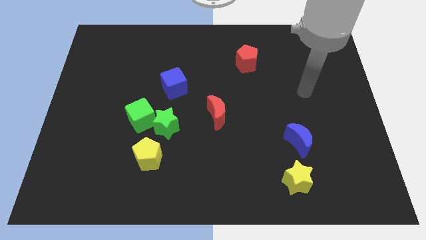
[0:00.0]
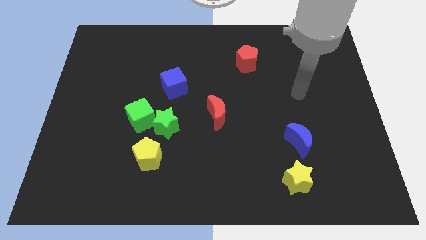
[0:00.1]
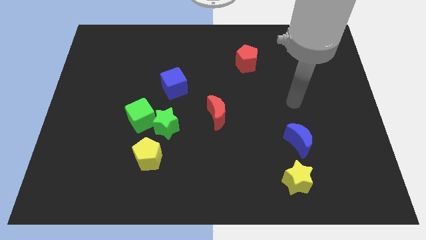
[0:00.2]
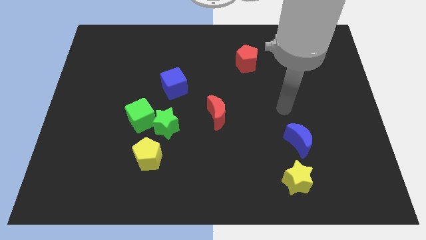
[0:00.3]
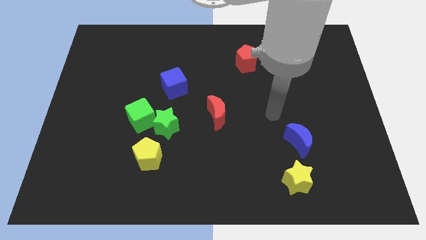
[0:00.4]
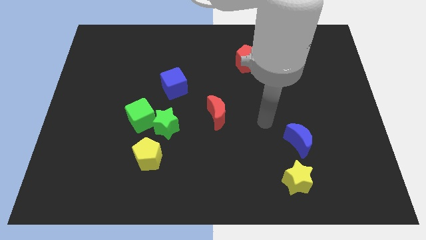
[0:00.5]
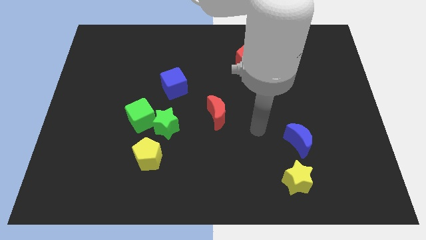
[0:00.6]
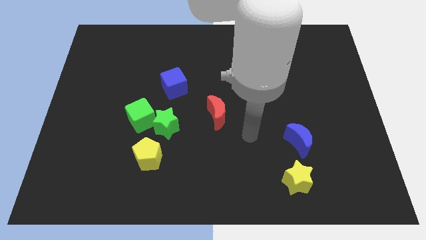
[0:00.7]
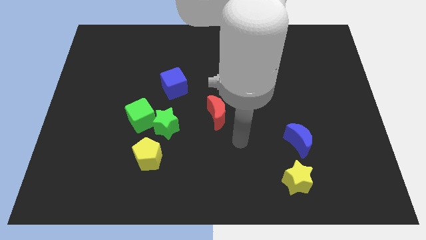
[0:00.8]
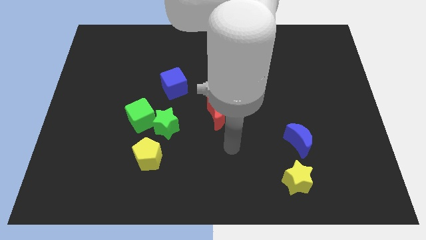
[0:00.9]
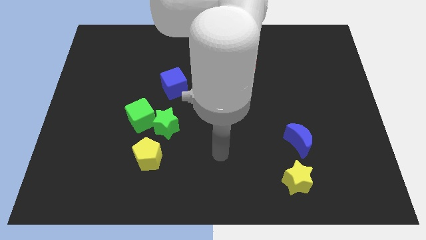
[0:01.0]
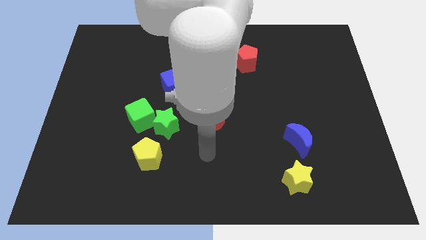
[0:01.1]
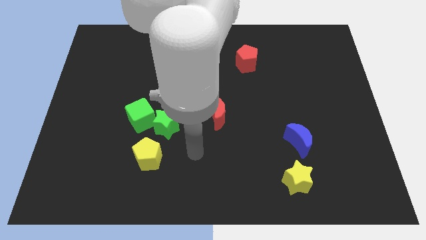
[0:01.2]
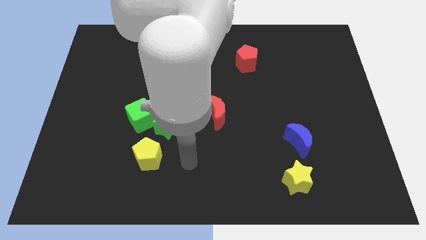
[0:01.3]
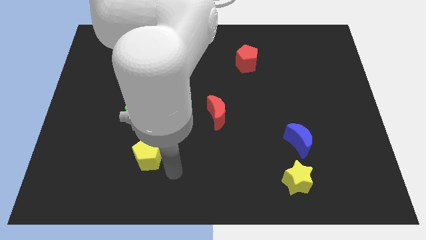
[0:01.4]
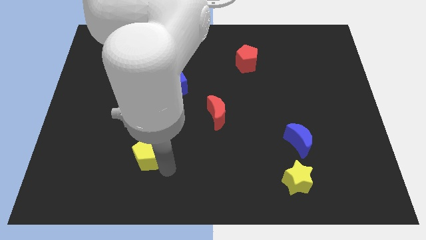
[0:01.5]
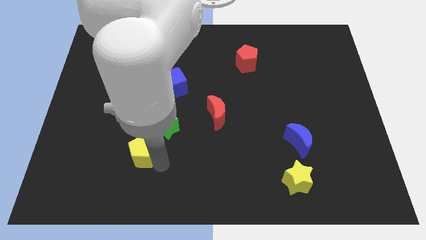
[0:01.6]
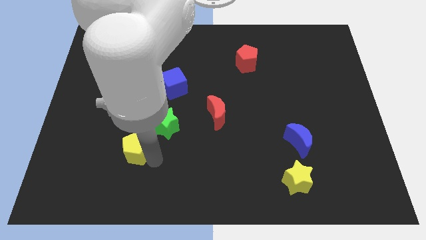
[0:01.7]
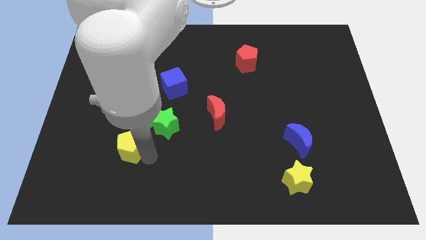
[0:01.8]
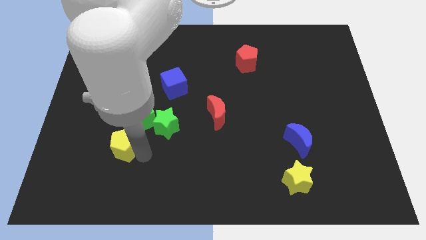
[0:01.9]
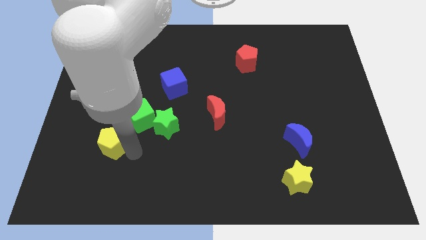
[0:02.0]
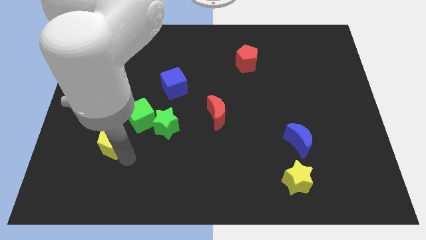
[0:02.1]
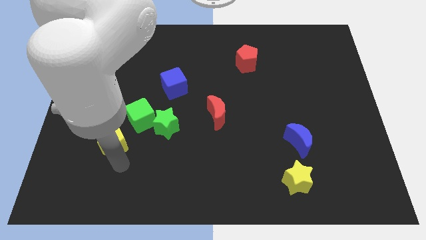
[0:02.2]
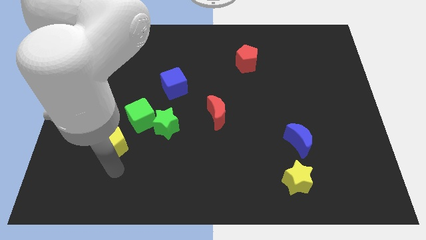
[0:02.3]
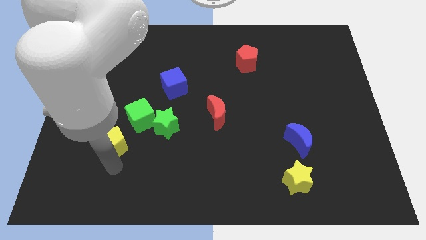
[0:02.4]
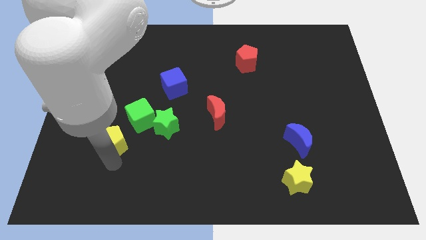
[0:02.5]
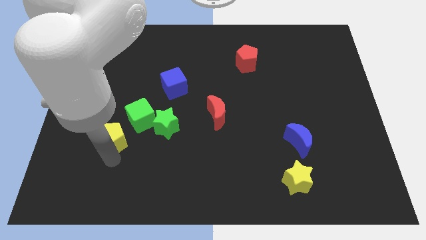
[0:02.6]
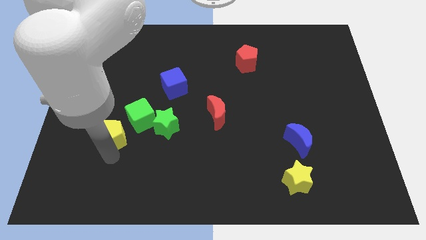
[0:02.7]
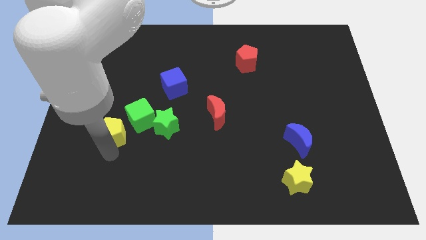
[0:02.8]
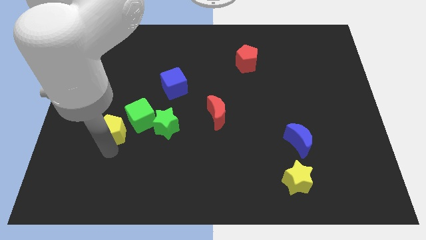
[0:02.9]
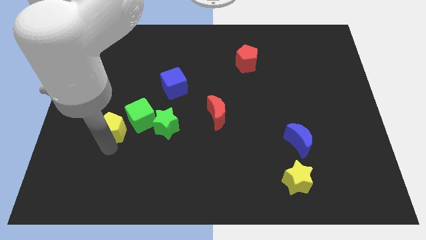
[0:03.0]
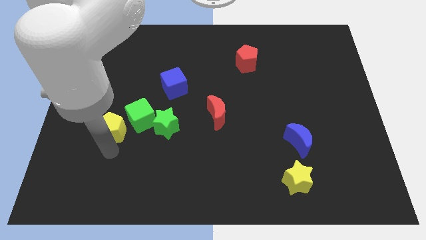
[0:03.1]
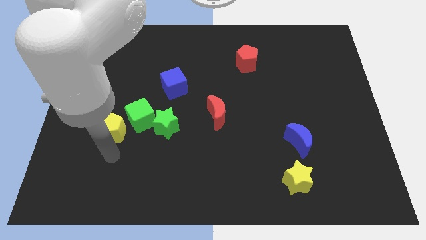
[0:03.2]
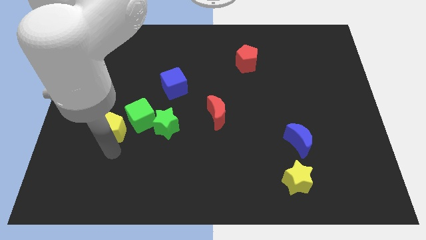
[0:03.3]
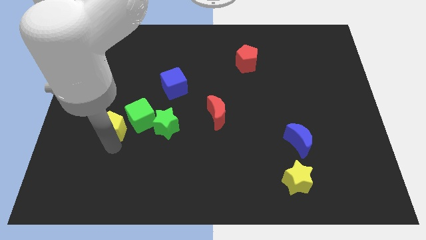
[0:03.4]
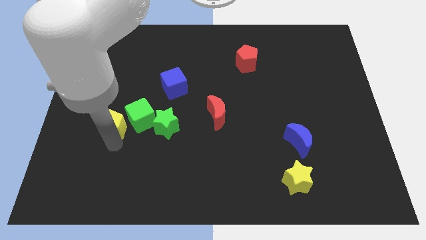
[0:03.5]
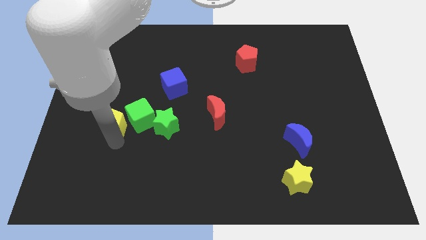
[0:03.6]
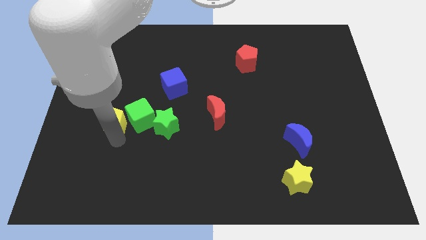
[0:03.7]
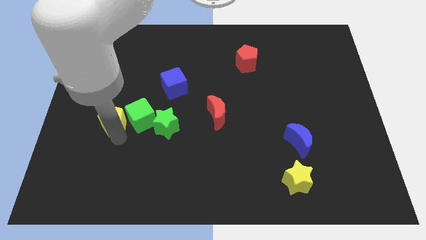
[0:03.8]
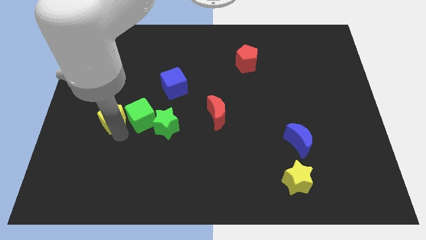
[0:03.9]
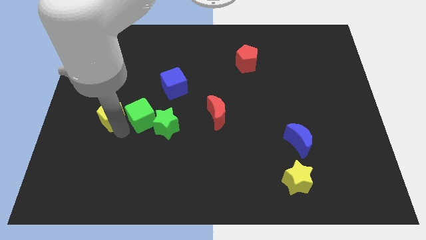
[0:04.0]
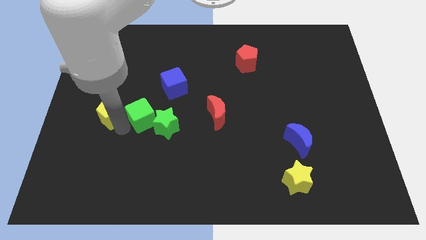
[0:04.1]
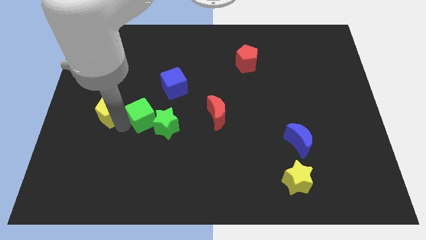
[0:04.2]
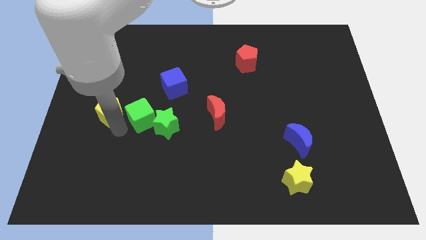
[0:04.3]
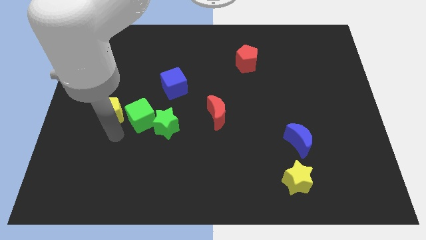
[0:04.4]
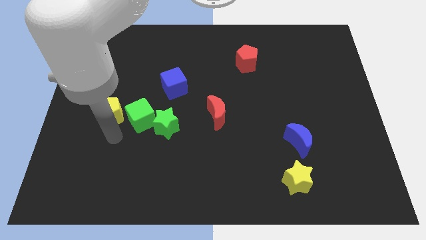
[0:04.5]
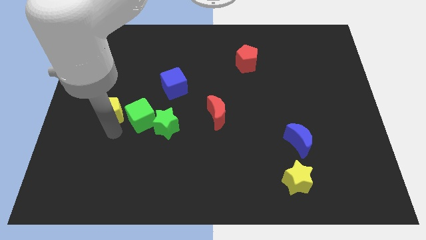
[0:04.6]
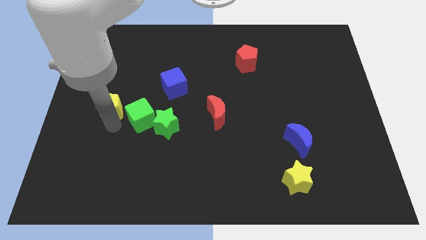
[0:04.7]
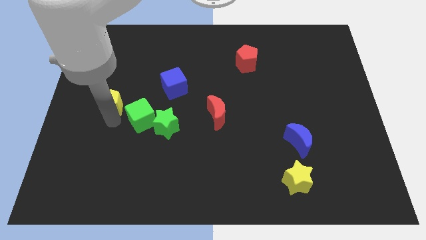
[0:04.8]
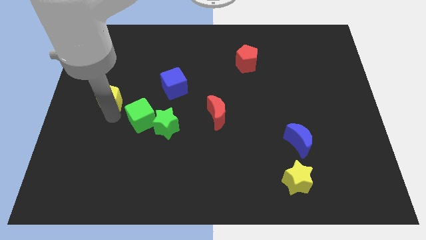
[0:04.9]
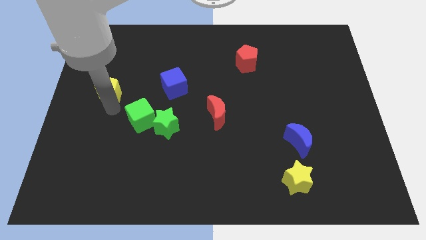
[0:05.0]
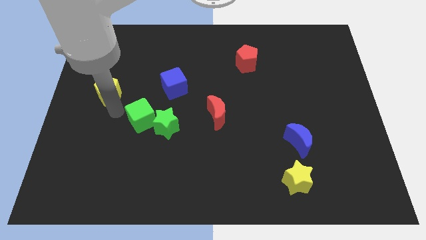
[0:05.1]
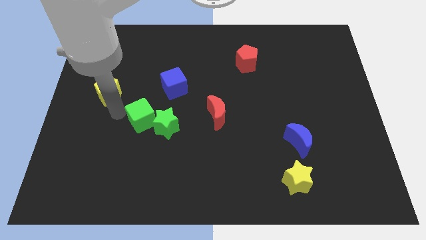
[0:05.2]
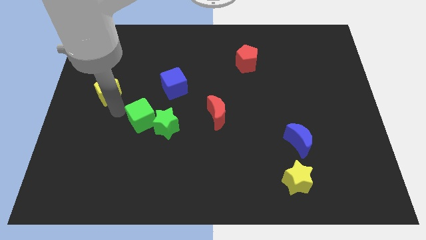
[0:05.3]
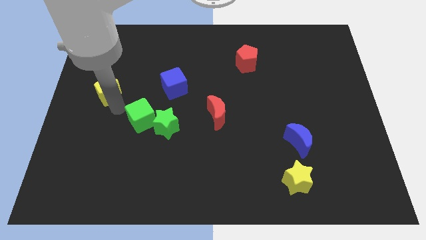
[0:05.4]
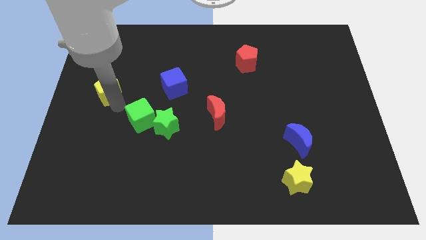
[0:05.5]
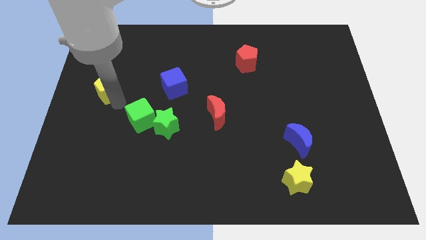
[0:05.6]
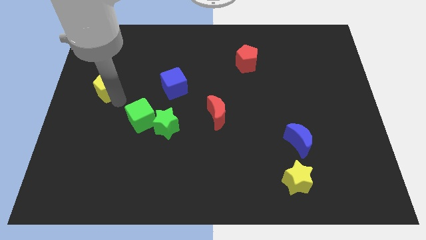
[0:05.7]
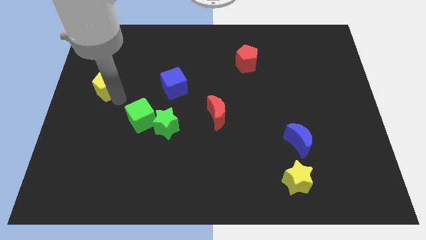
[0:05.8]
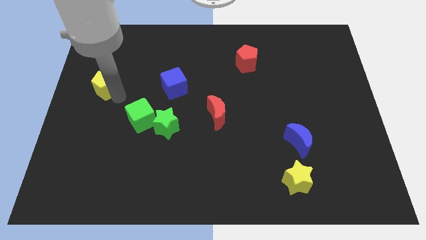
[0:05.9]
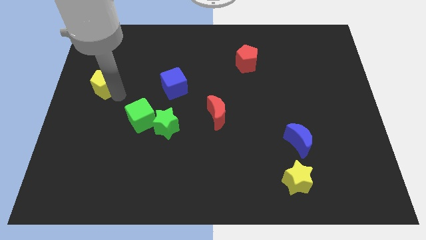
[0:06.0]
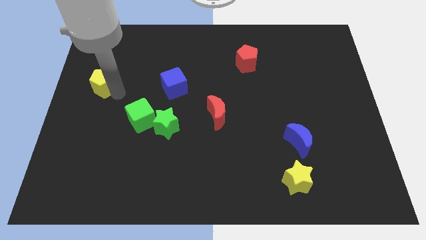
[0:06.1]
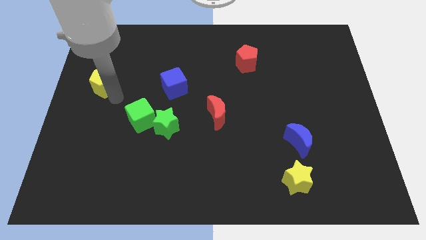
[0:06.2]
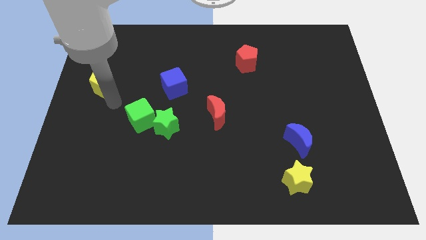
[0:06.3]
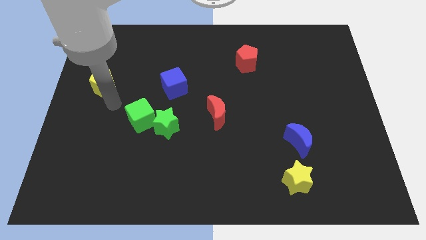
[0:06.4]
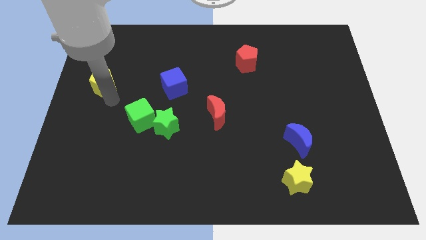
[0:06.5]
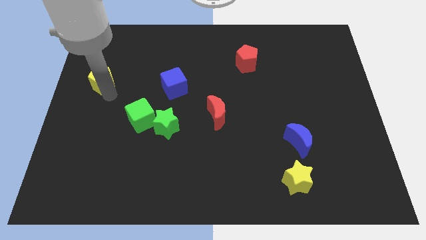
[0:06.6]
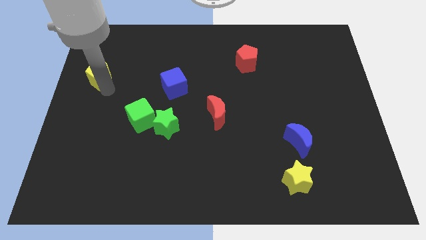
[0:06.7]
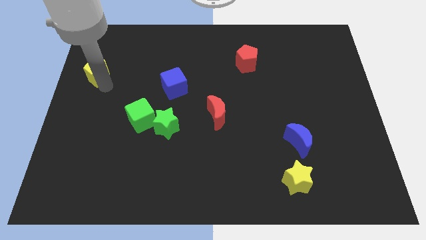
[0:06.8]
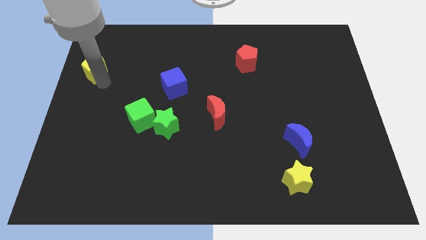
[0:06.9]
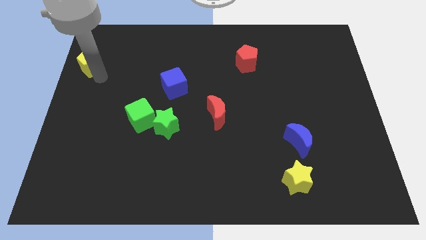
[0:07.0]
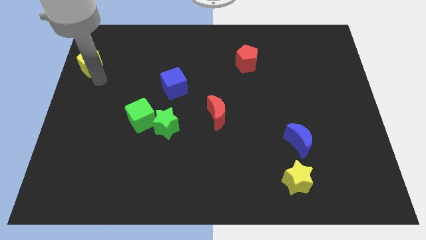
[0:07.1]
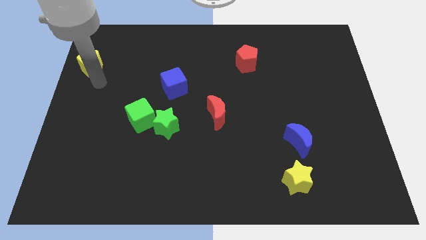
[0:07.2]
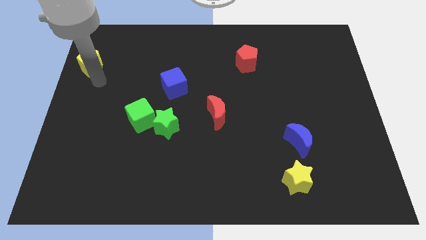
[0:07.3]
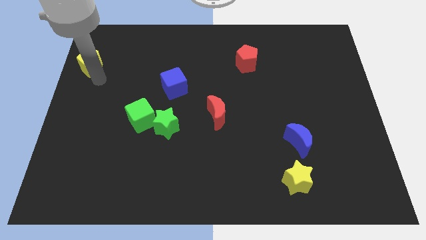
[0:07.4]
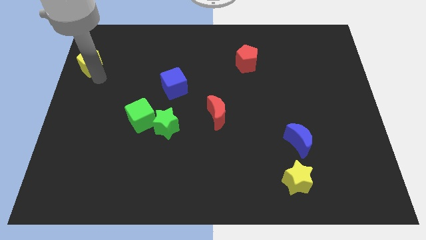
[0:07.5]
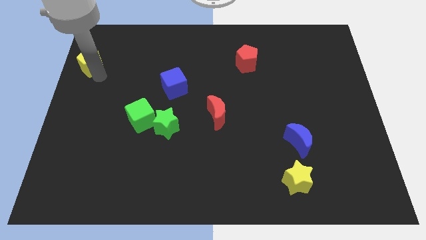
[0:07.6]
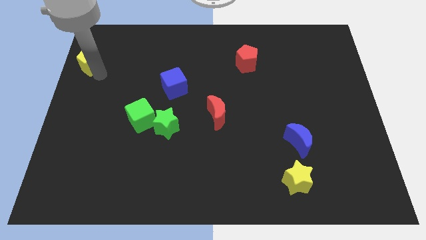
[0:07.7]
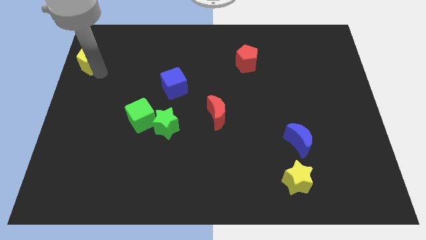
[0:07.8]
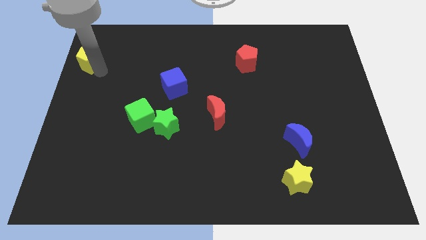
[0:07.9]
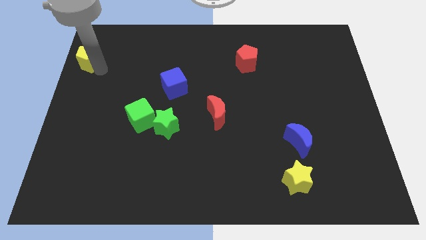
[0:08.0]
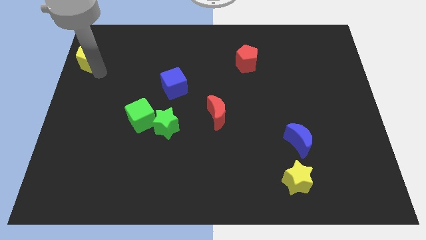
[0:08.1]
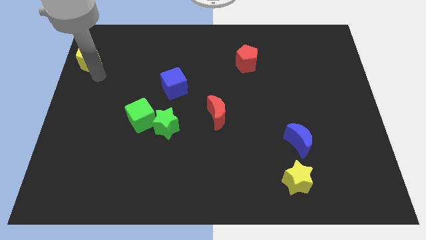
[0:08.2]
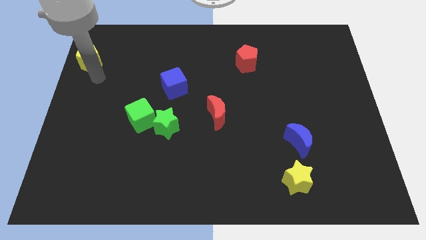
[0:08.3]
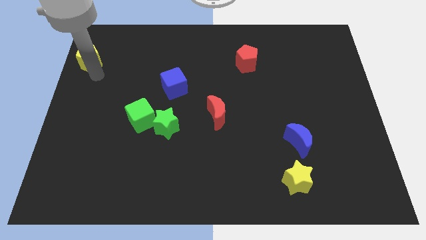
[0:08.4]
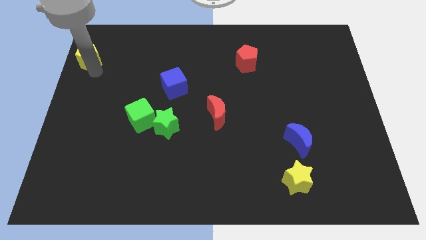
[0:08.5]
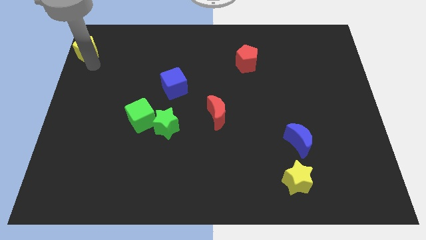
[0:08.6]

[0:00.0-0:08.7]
slide the yellow pentagon to the top left corner
